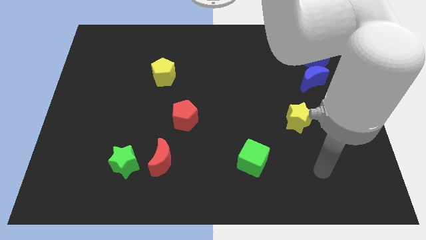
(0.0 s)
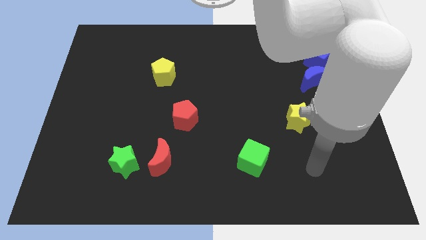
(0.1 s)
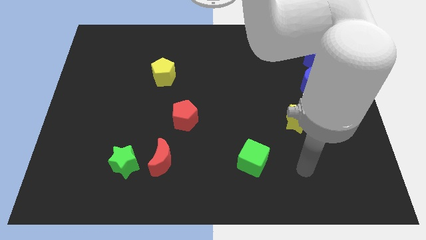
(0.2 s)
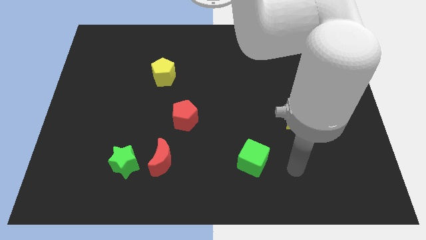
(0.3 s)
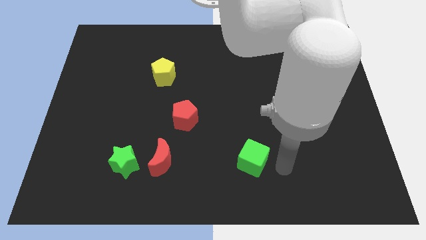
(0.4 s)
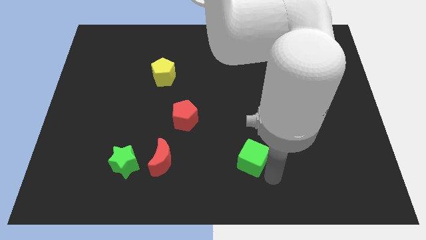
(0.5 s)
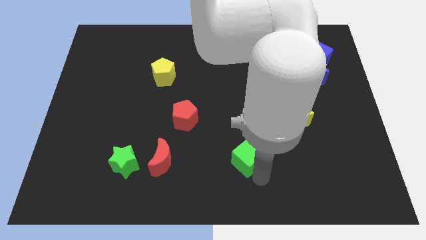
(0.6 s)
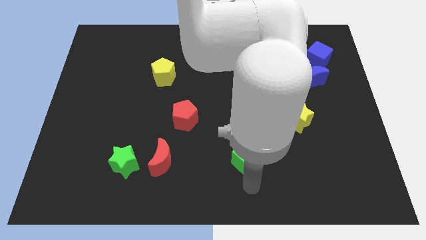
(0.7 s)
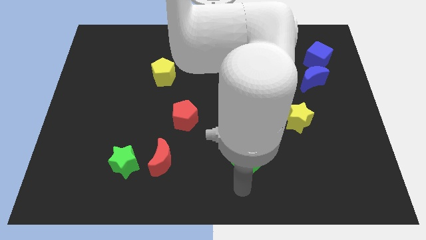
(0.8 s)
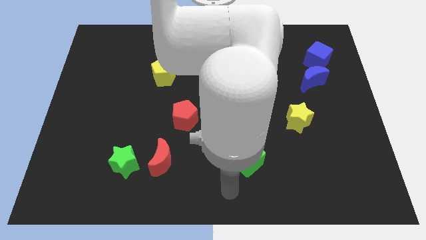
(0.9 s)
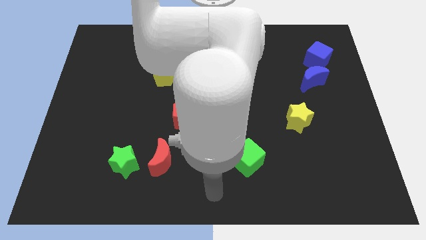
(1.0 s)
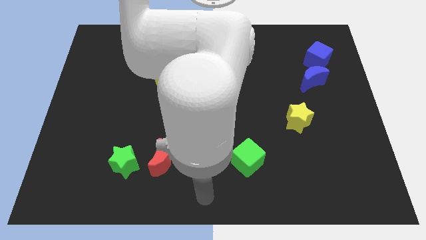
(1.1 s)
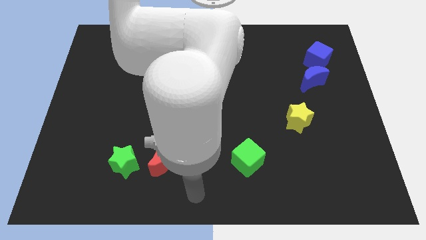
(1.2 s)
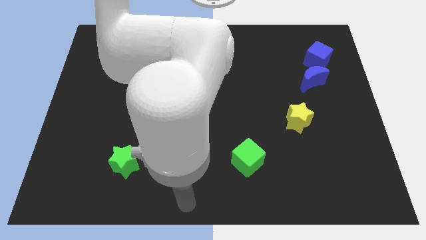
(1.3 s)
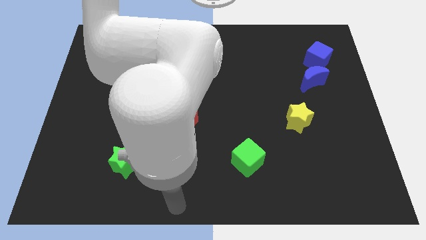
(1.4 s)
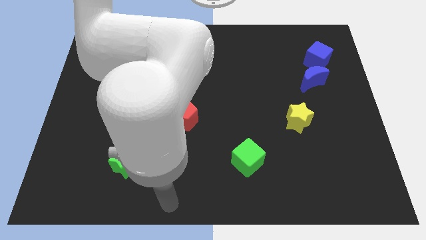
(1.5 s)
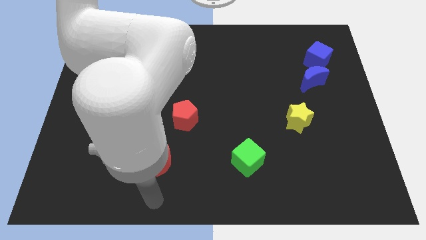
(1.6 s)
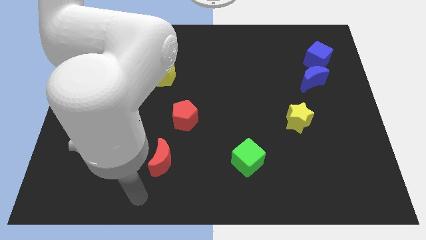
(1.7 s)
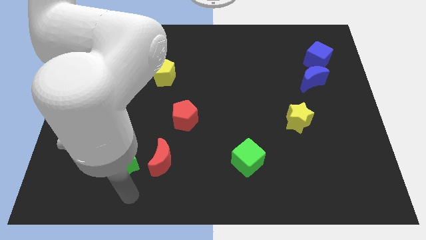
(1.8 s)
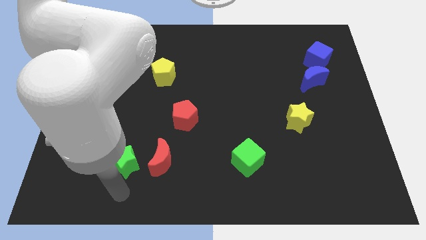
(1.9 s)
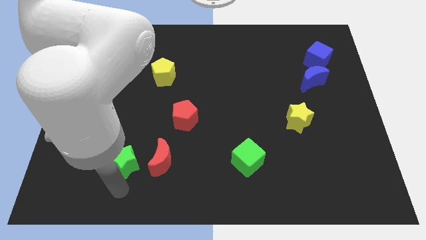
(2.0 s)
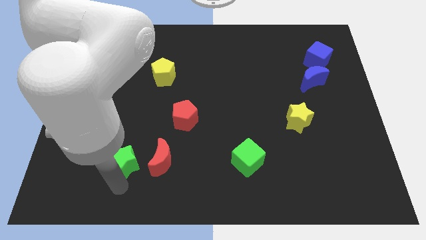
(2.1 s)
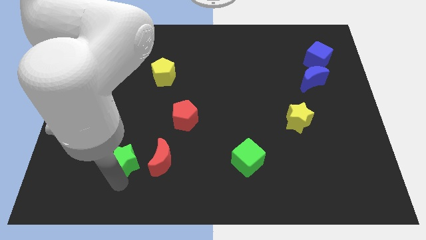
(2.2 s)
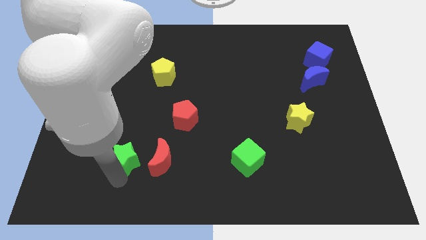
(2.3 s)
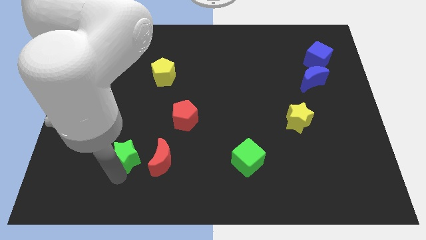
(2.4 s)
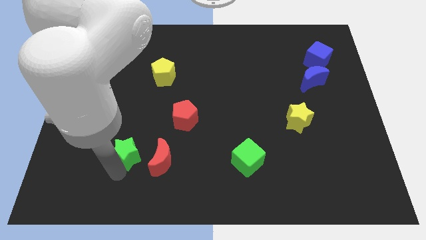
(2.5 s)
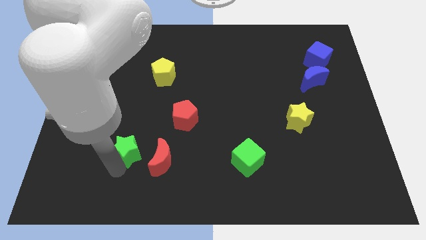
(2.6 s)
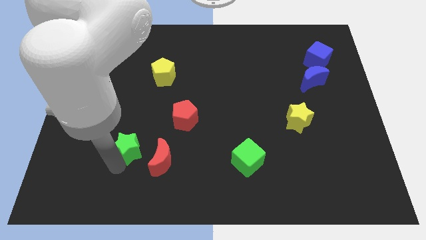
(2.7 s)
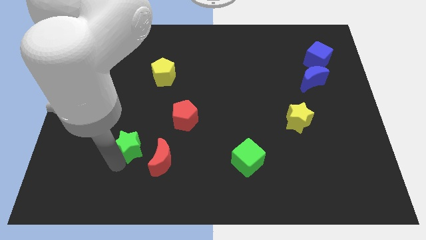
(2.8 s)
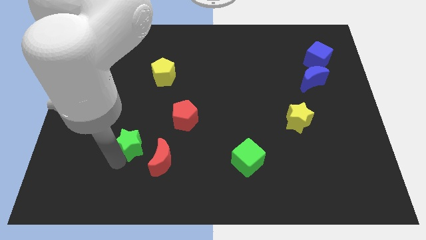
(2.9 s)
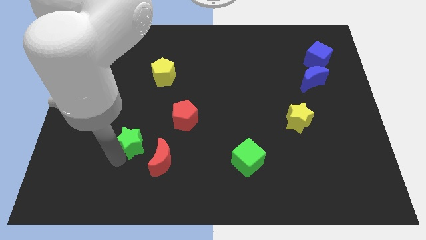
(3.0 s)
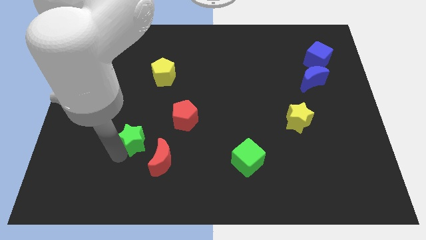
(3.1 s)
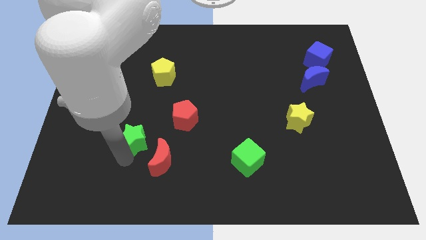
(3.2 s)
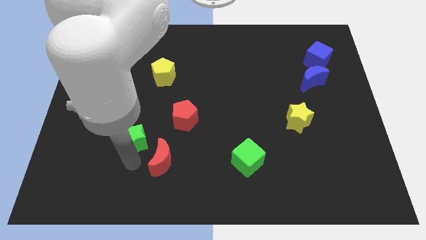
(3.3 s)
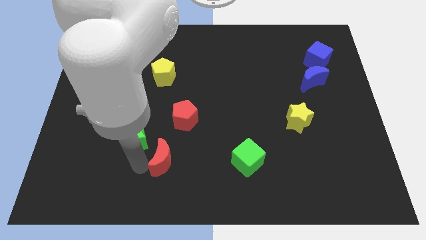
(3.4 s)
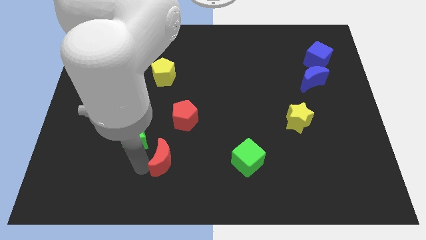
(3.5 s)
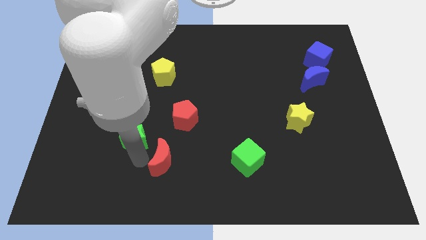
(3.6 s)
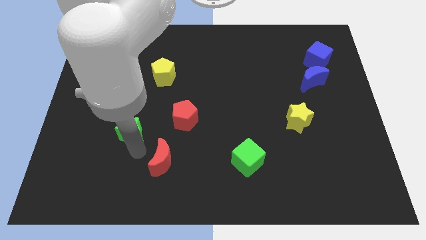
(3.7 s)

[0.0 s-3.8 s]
slightly move the green star up

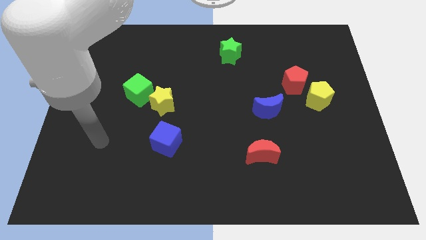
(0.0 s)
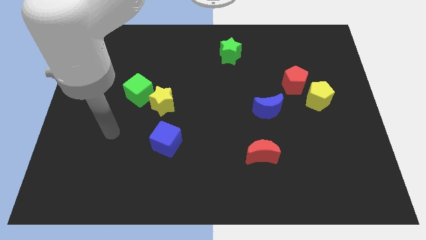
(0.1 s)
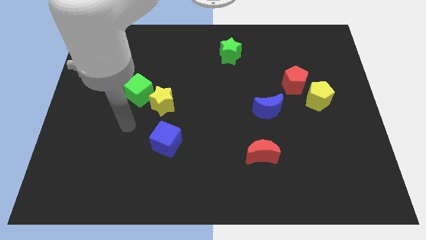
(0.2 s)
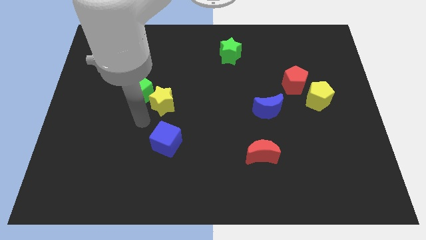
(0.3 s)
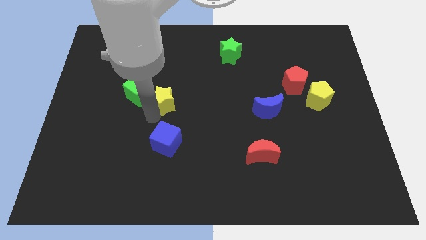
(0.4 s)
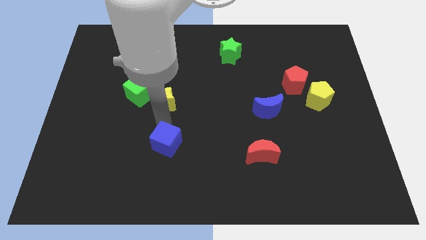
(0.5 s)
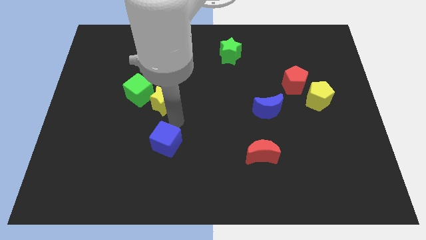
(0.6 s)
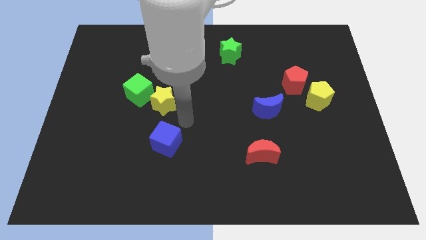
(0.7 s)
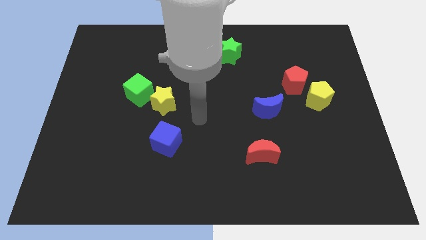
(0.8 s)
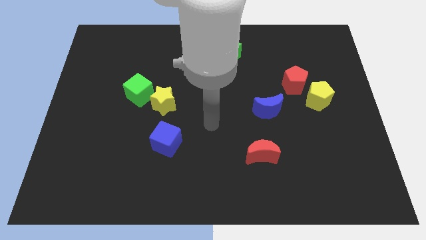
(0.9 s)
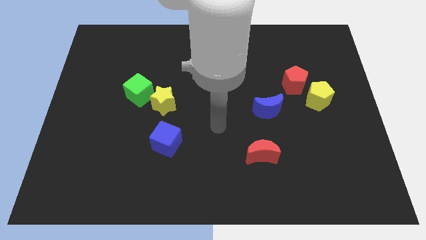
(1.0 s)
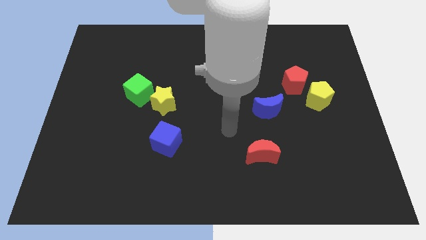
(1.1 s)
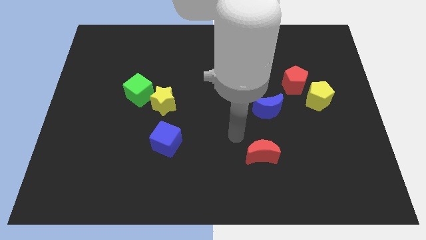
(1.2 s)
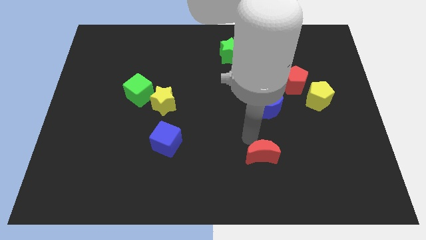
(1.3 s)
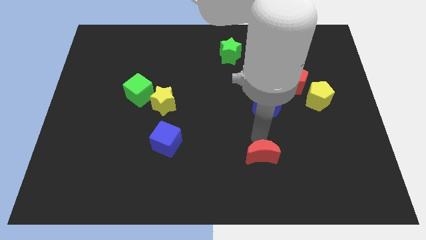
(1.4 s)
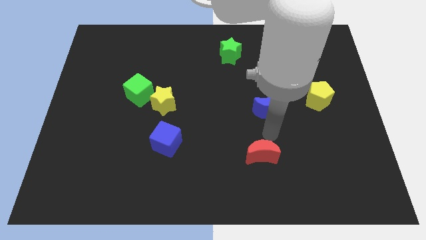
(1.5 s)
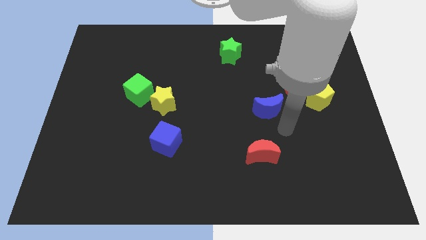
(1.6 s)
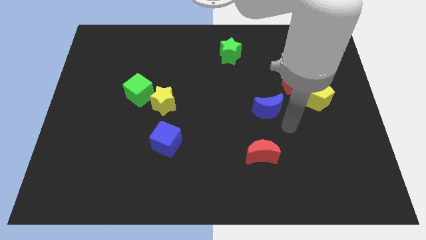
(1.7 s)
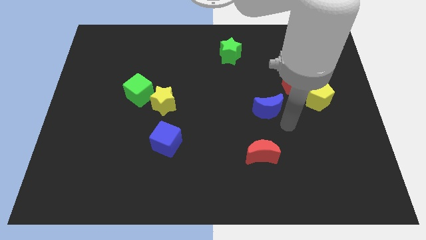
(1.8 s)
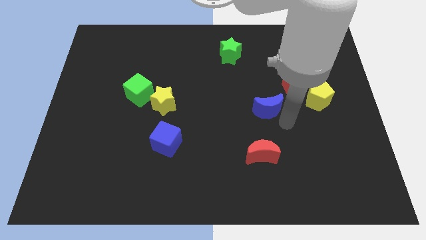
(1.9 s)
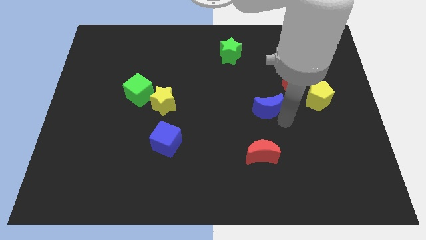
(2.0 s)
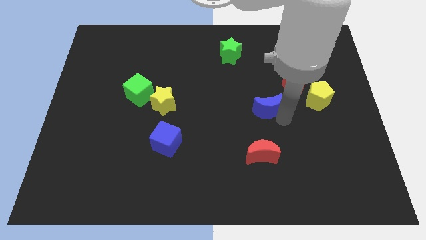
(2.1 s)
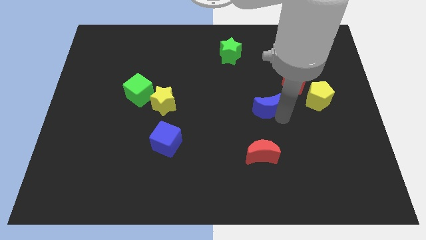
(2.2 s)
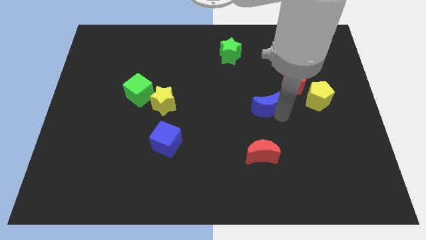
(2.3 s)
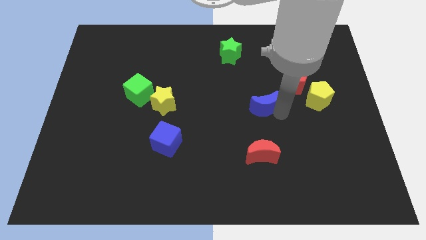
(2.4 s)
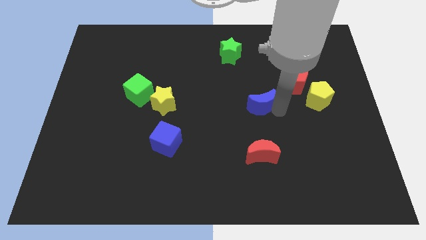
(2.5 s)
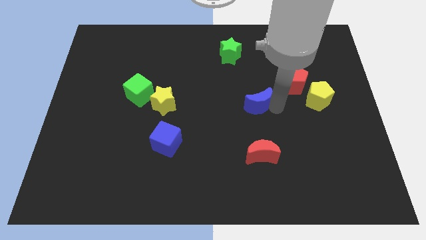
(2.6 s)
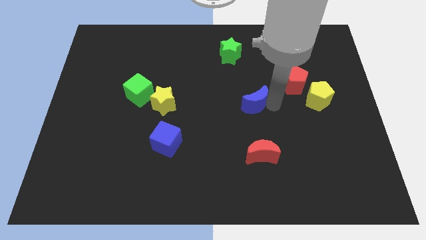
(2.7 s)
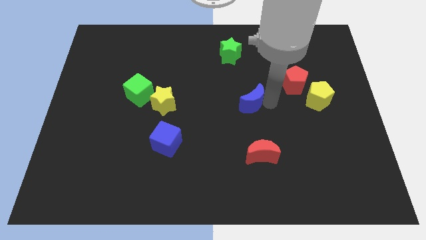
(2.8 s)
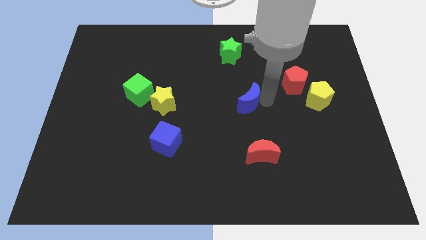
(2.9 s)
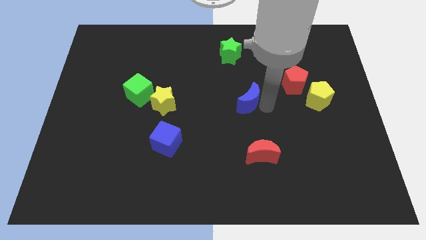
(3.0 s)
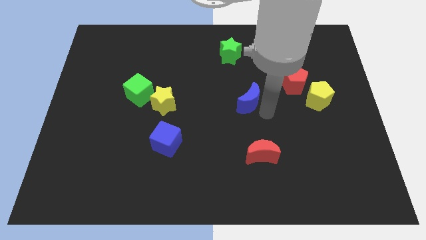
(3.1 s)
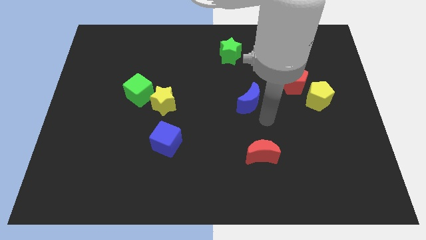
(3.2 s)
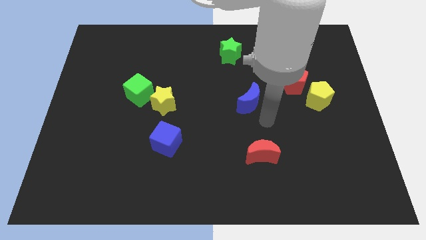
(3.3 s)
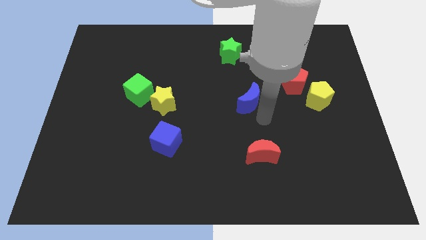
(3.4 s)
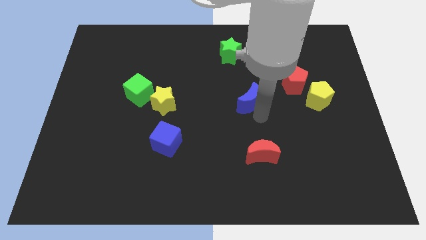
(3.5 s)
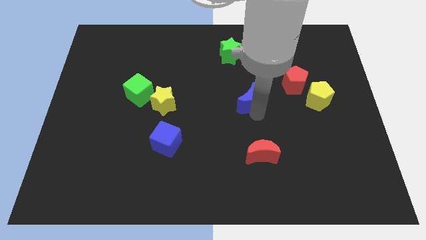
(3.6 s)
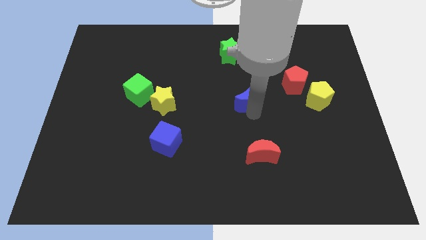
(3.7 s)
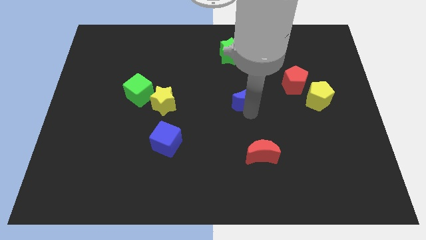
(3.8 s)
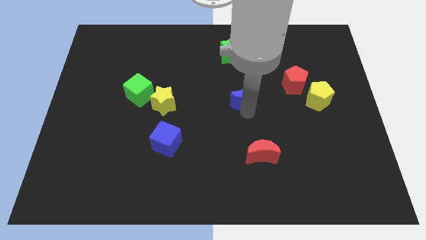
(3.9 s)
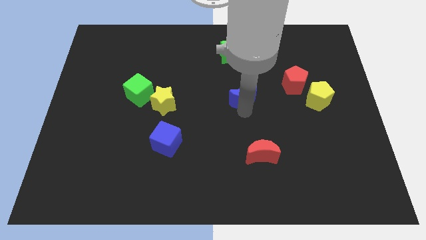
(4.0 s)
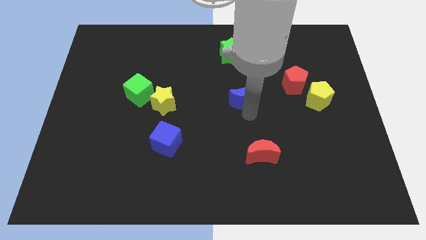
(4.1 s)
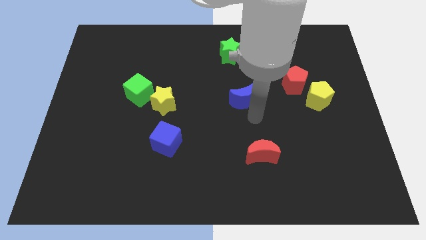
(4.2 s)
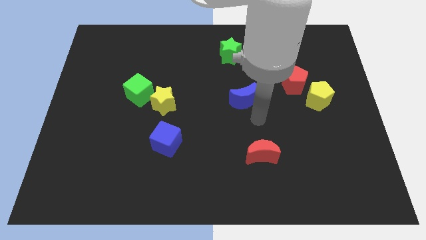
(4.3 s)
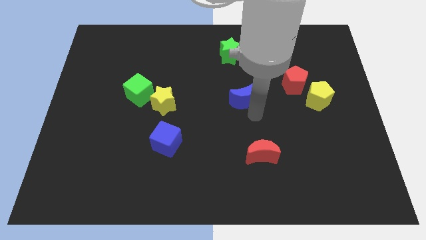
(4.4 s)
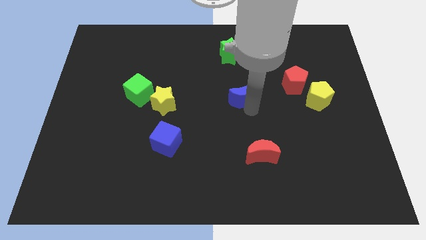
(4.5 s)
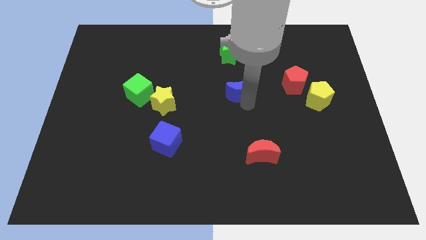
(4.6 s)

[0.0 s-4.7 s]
push the blue moon up and left a bit
